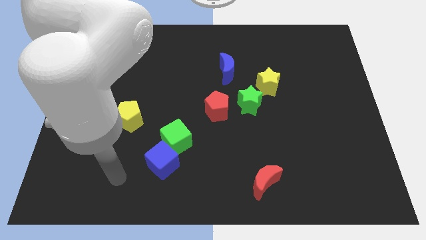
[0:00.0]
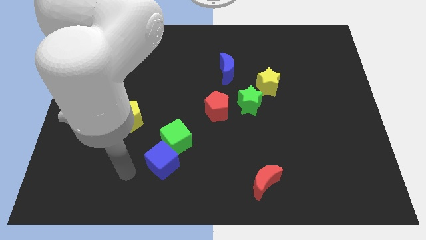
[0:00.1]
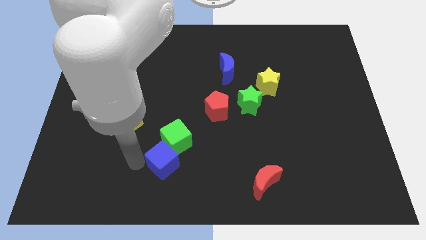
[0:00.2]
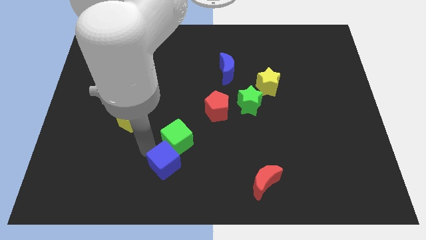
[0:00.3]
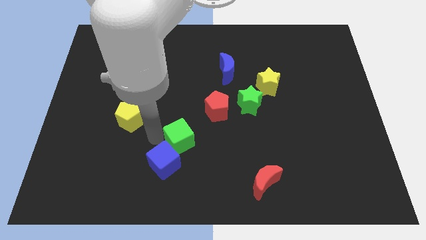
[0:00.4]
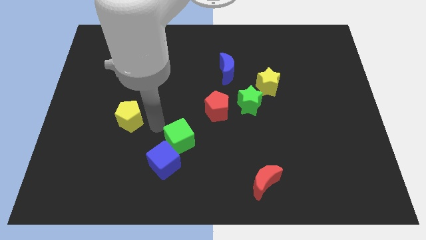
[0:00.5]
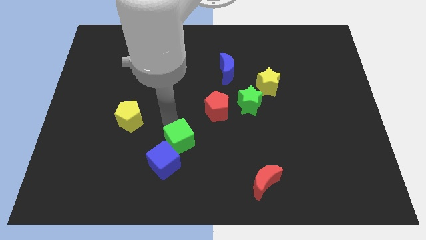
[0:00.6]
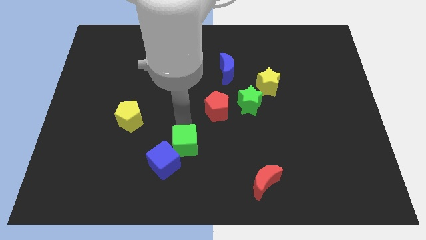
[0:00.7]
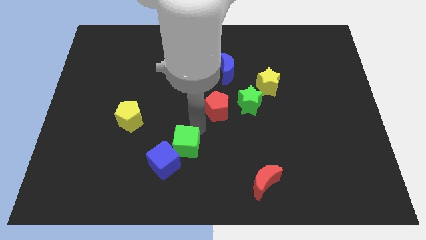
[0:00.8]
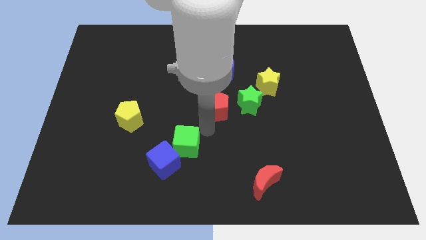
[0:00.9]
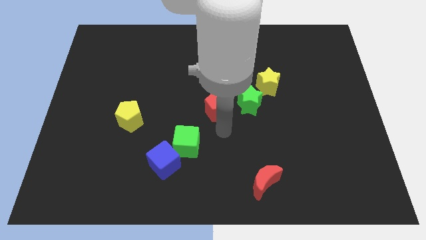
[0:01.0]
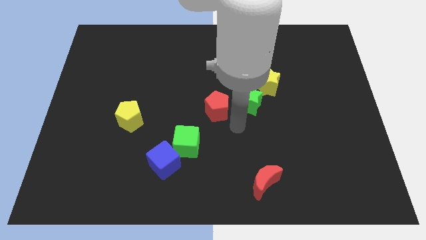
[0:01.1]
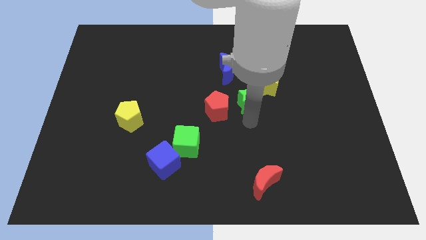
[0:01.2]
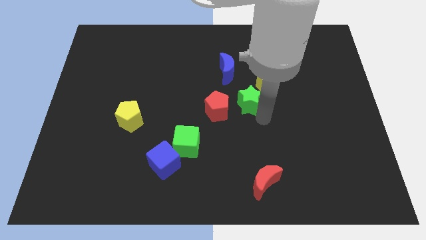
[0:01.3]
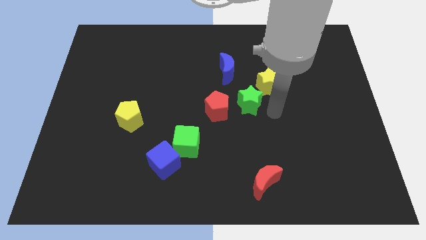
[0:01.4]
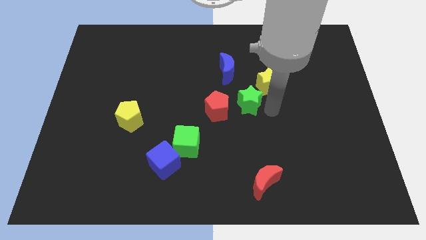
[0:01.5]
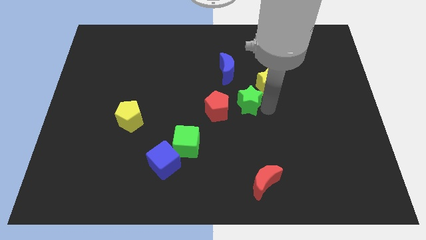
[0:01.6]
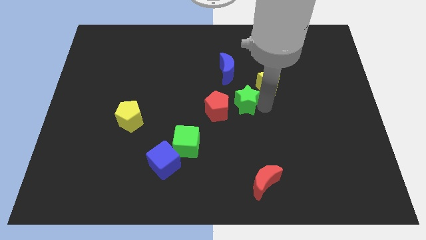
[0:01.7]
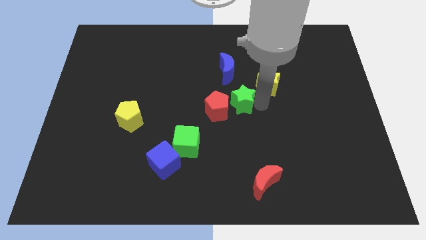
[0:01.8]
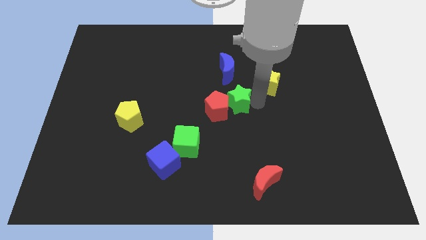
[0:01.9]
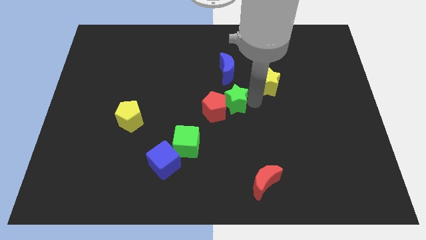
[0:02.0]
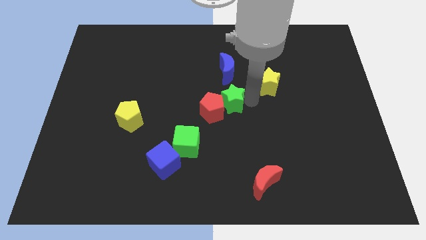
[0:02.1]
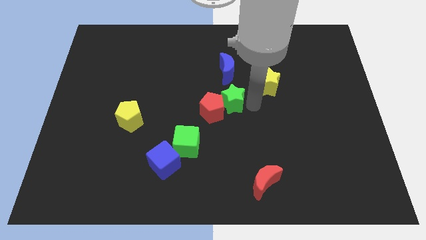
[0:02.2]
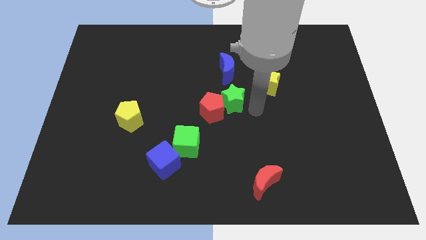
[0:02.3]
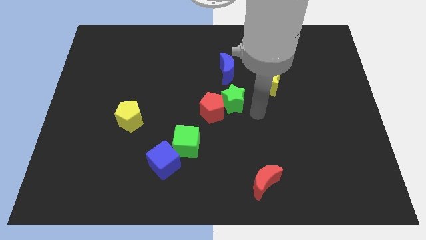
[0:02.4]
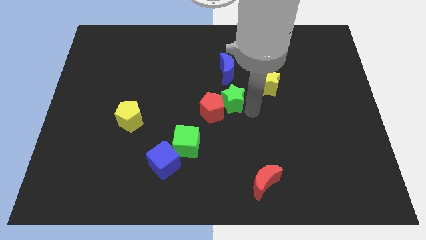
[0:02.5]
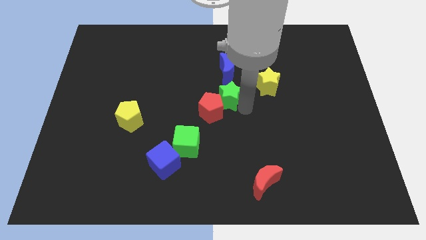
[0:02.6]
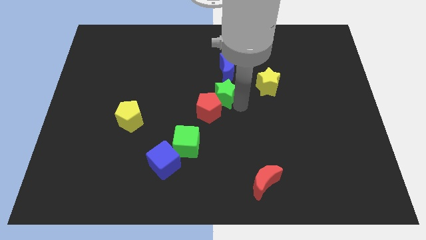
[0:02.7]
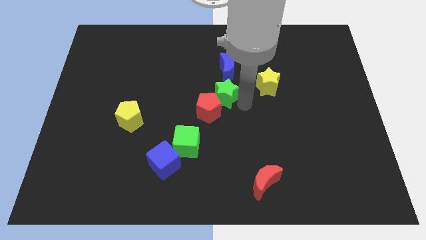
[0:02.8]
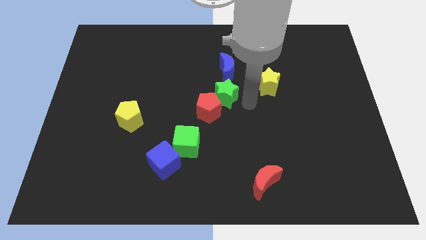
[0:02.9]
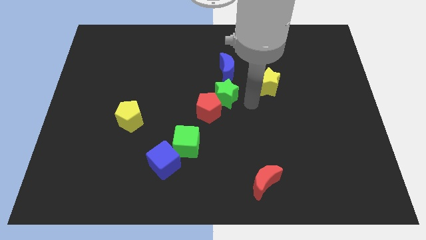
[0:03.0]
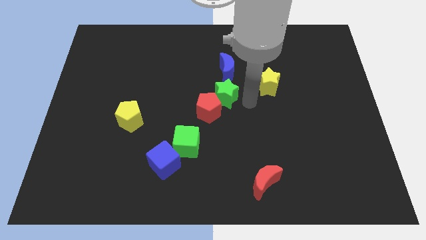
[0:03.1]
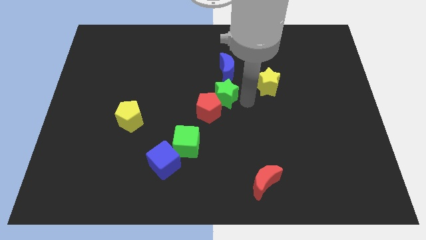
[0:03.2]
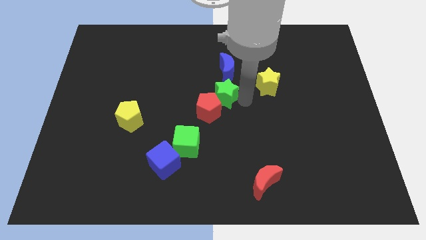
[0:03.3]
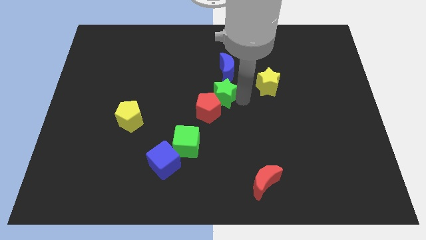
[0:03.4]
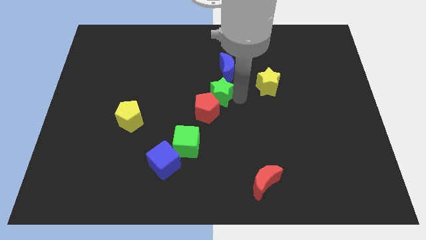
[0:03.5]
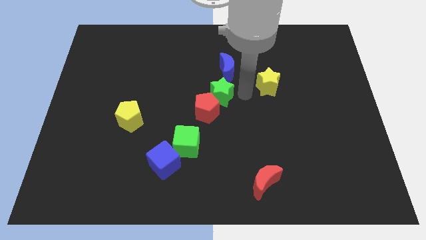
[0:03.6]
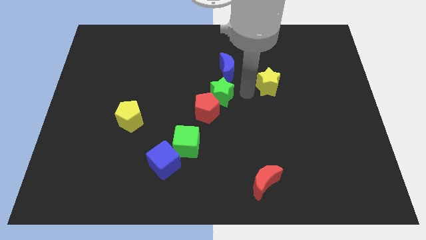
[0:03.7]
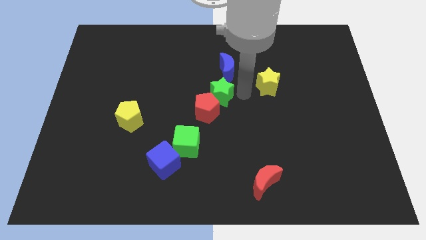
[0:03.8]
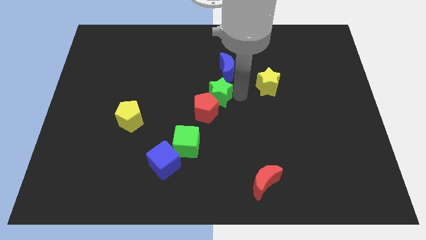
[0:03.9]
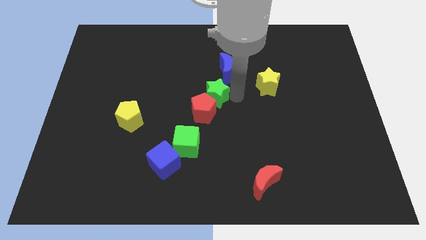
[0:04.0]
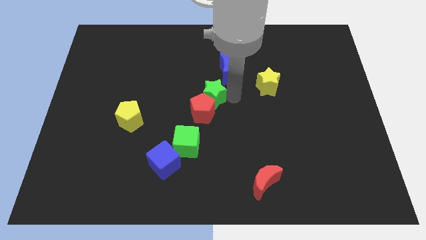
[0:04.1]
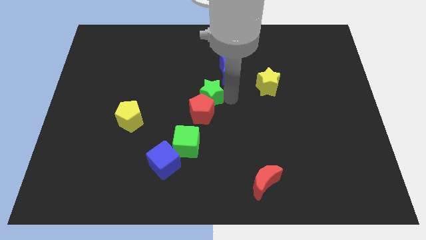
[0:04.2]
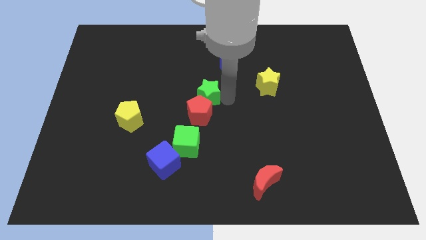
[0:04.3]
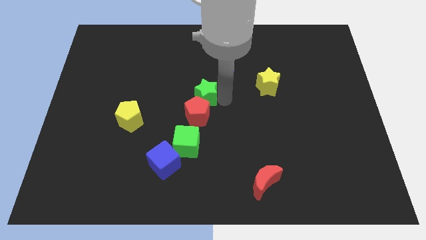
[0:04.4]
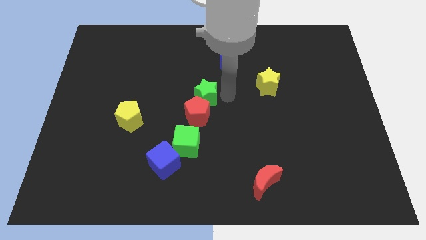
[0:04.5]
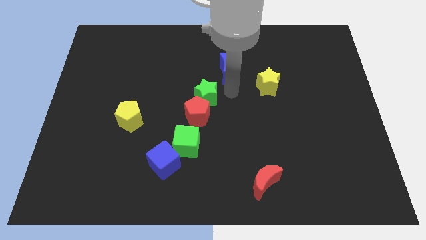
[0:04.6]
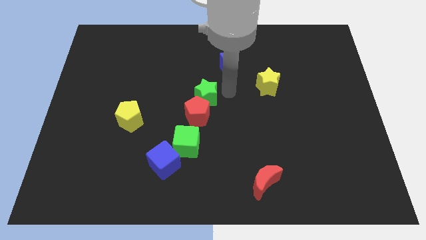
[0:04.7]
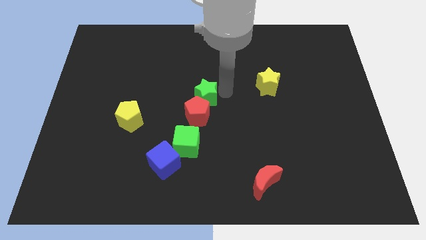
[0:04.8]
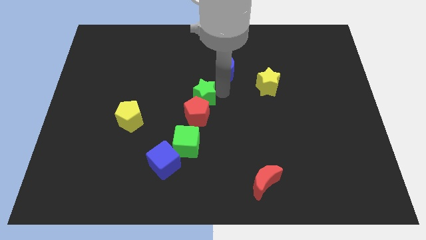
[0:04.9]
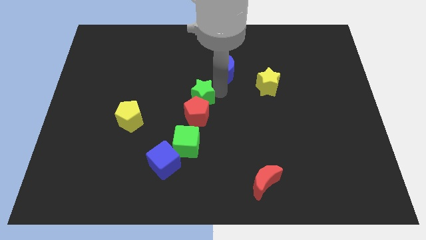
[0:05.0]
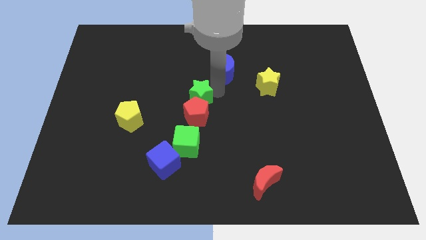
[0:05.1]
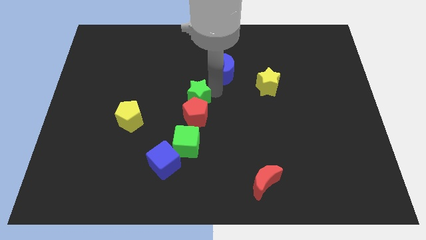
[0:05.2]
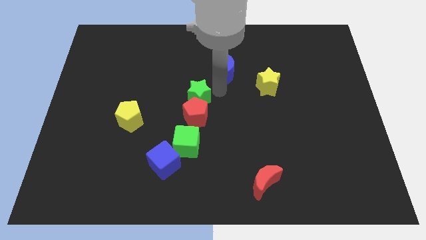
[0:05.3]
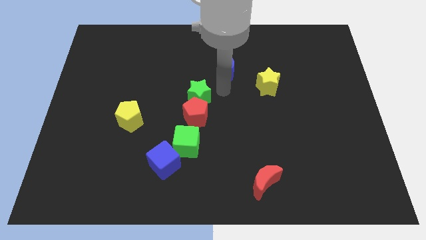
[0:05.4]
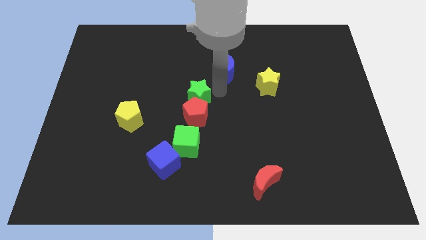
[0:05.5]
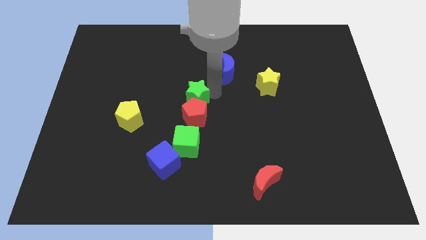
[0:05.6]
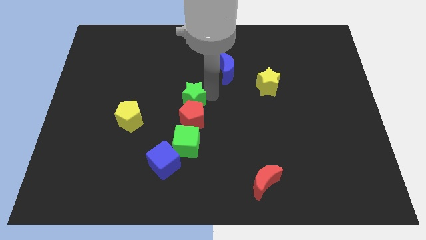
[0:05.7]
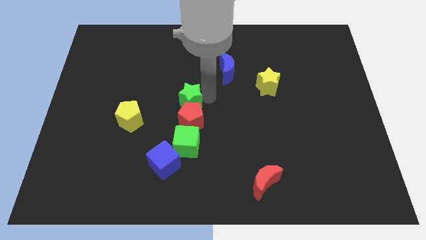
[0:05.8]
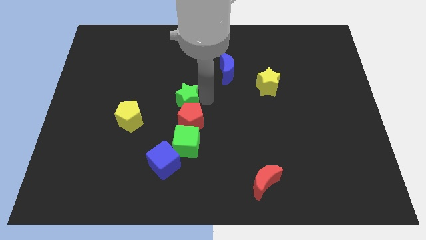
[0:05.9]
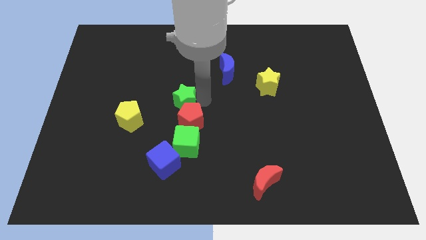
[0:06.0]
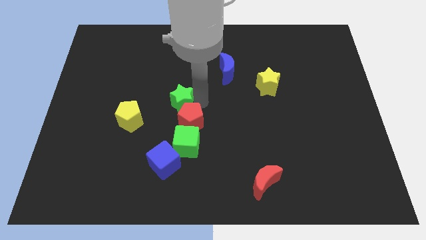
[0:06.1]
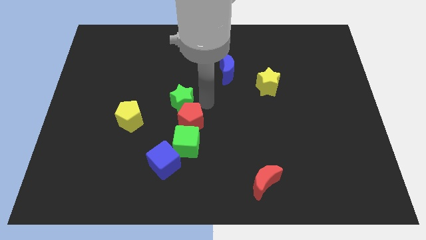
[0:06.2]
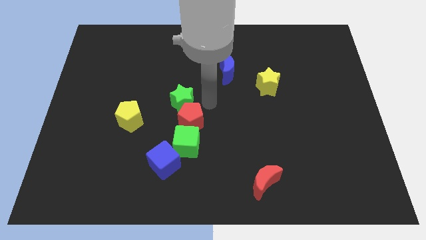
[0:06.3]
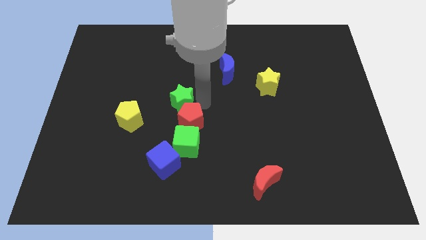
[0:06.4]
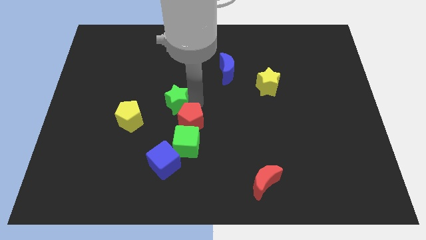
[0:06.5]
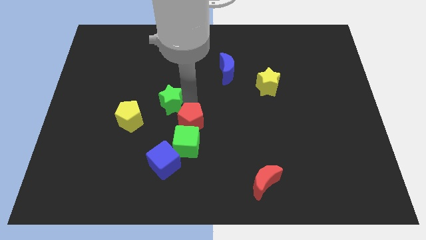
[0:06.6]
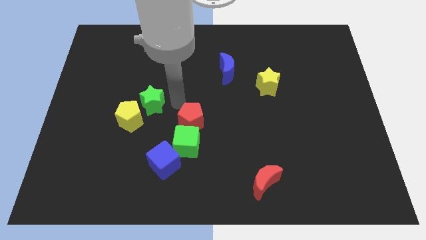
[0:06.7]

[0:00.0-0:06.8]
push the green star left

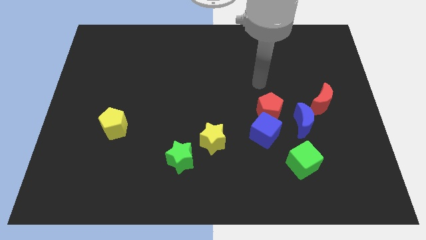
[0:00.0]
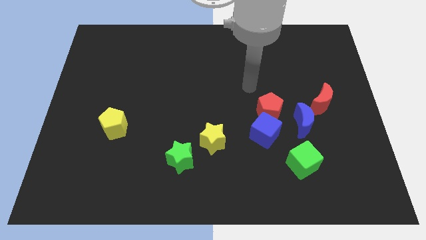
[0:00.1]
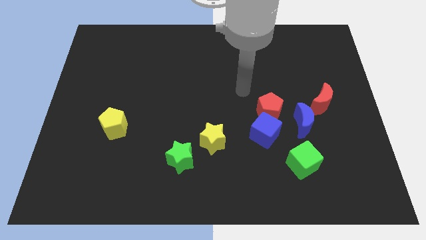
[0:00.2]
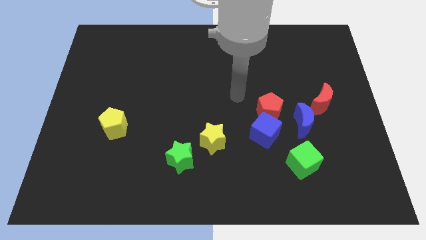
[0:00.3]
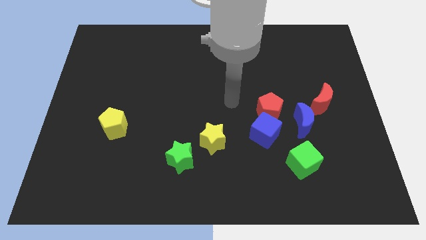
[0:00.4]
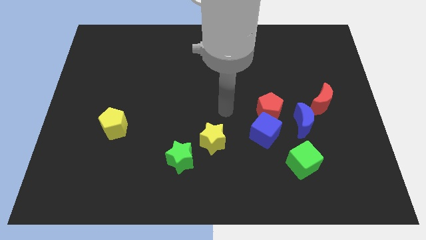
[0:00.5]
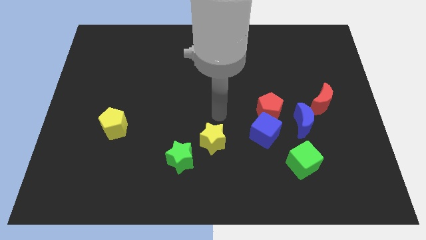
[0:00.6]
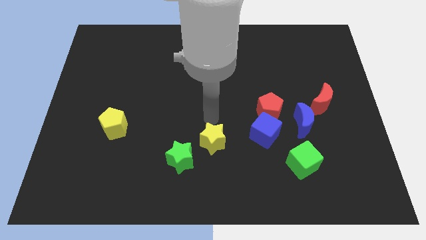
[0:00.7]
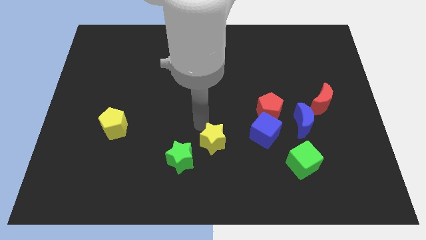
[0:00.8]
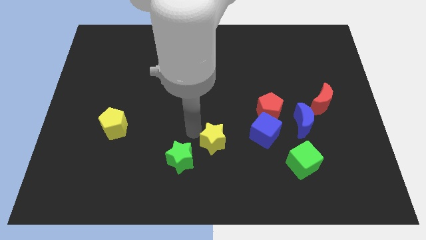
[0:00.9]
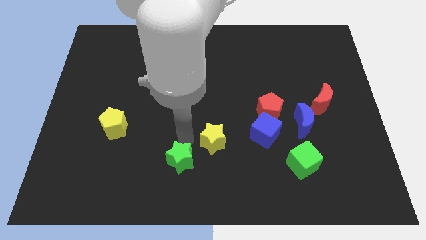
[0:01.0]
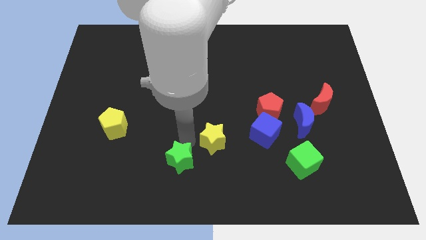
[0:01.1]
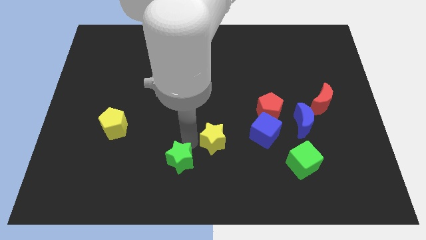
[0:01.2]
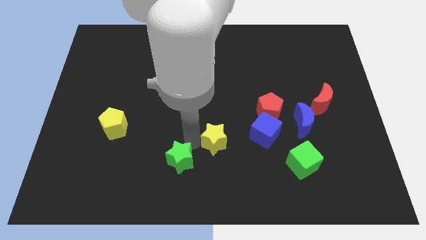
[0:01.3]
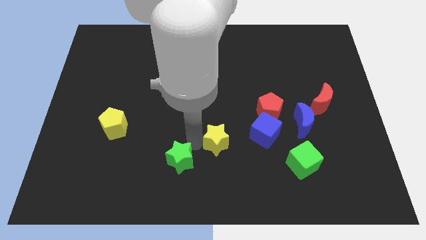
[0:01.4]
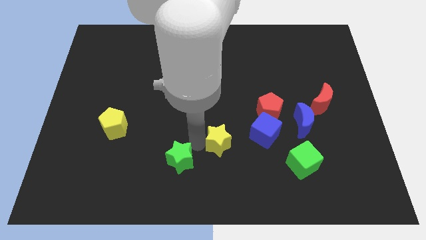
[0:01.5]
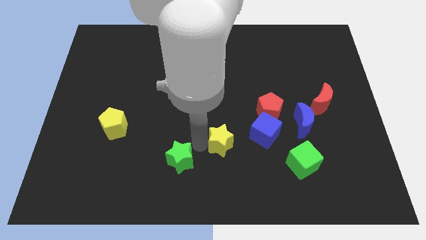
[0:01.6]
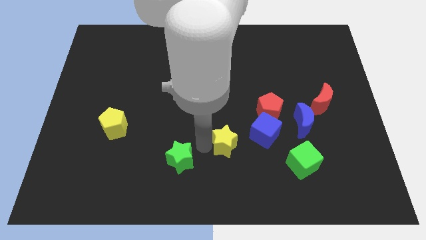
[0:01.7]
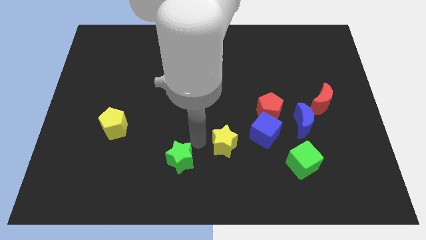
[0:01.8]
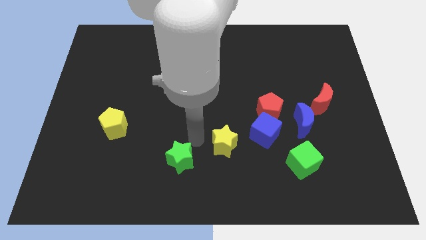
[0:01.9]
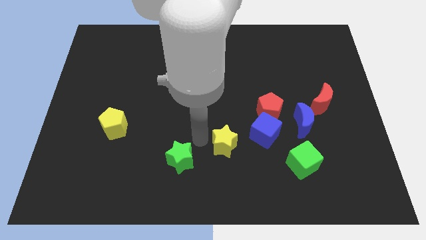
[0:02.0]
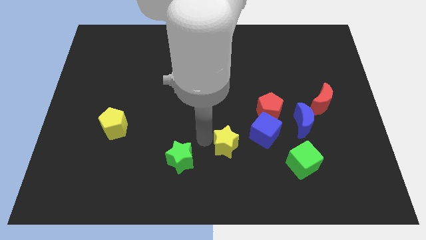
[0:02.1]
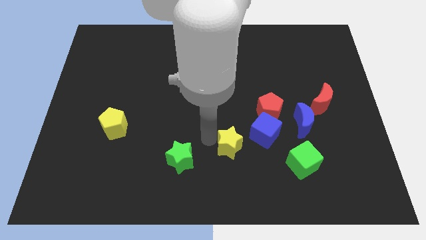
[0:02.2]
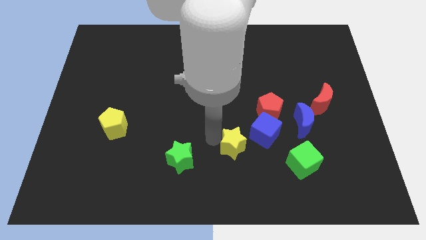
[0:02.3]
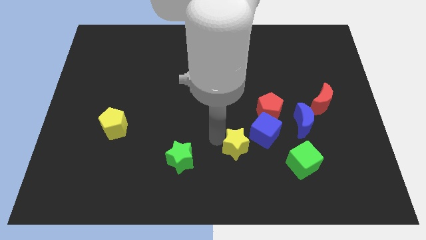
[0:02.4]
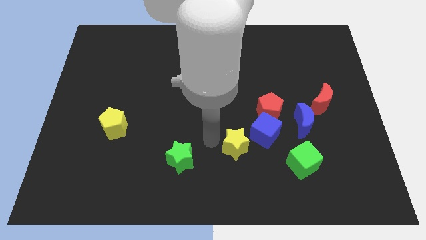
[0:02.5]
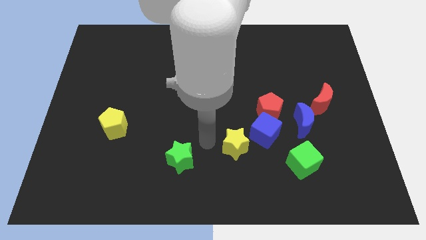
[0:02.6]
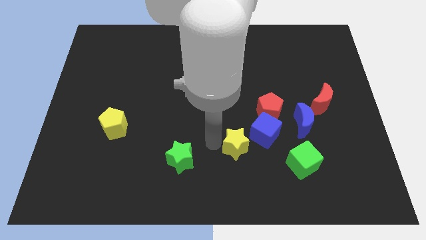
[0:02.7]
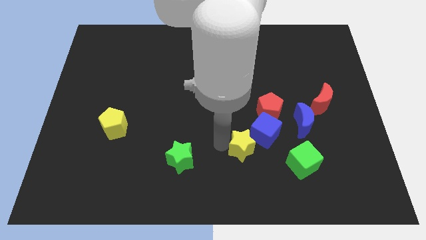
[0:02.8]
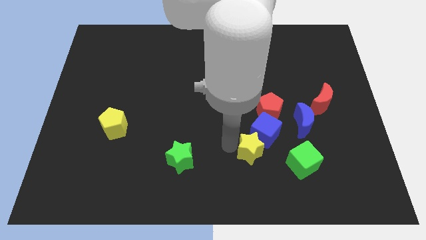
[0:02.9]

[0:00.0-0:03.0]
slide the yellow star a little bit to the right
